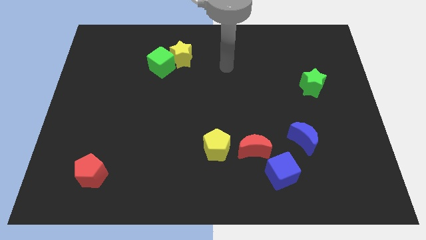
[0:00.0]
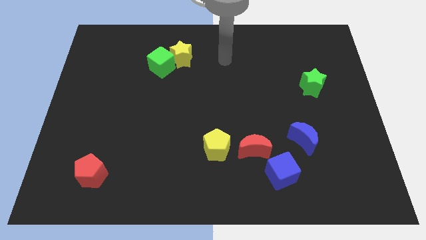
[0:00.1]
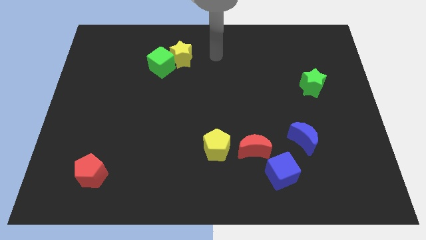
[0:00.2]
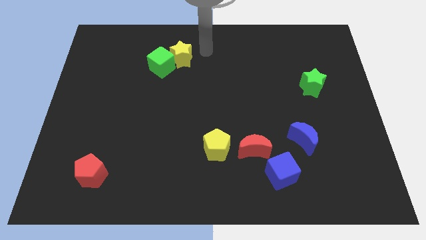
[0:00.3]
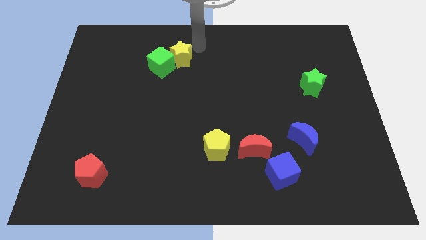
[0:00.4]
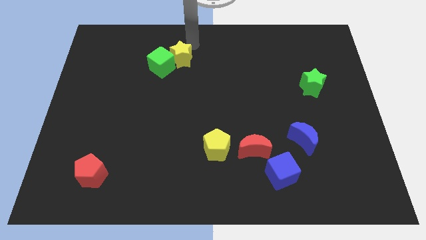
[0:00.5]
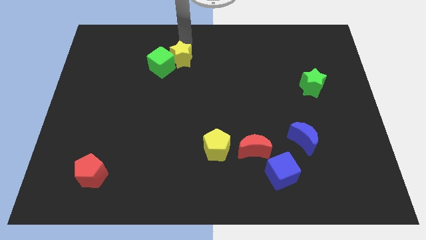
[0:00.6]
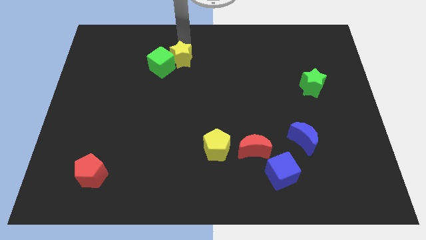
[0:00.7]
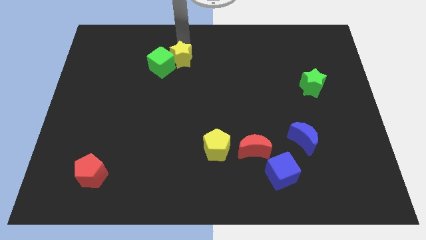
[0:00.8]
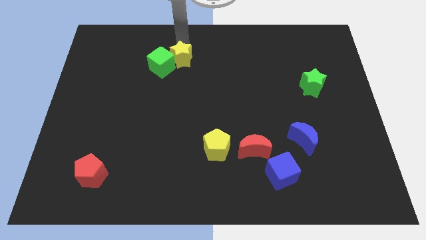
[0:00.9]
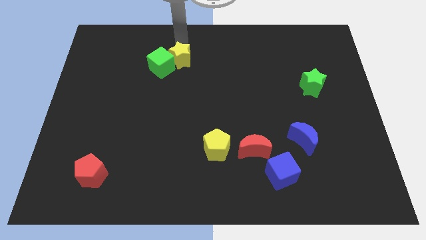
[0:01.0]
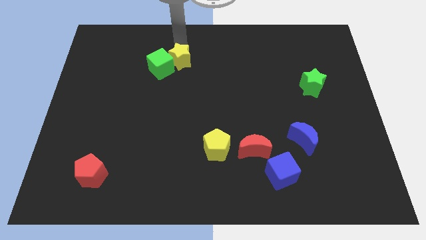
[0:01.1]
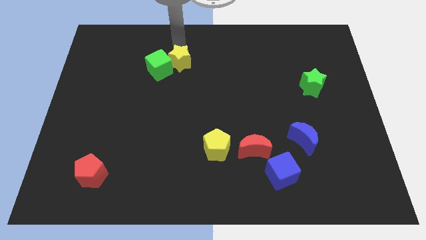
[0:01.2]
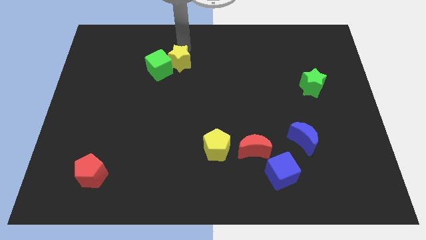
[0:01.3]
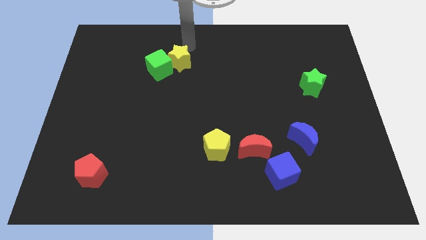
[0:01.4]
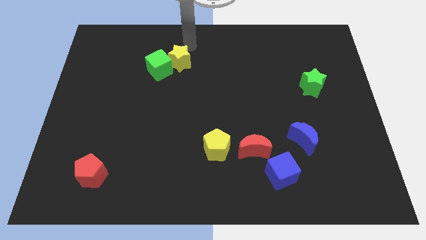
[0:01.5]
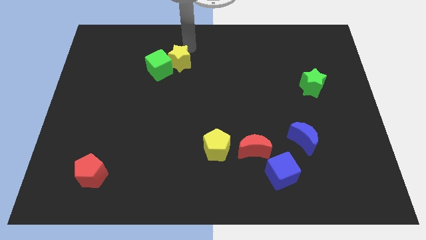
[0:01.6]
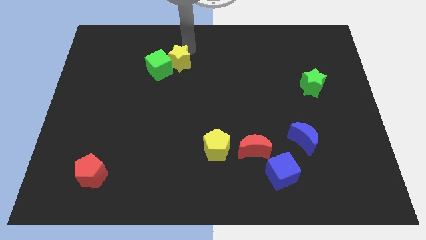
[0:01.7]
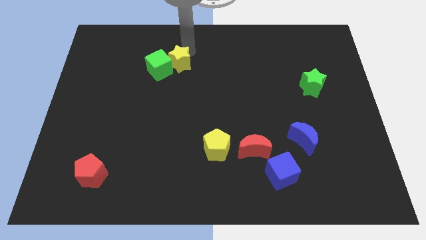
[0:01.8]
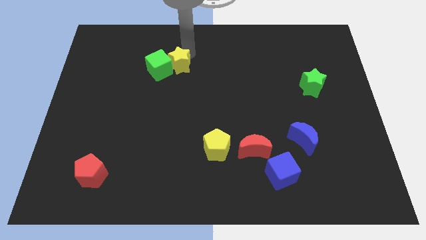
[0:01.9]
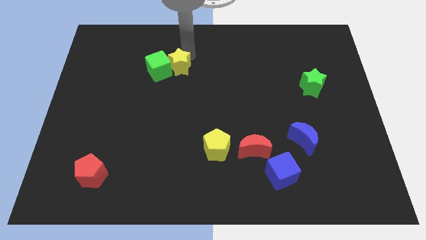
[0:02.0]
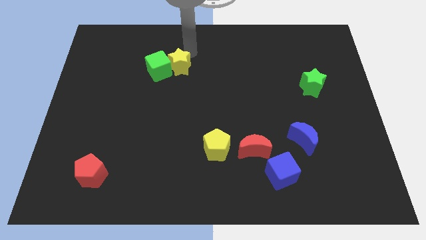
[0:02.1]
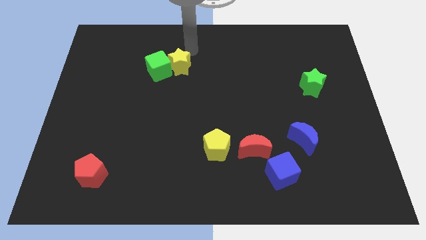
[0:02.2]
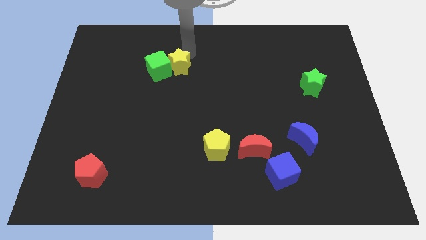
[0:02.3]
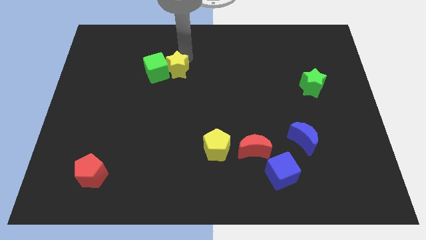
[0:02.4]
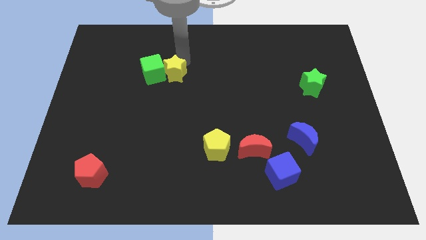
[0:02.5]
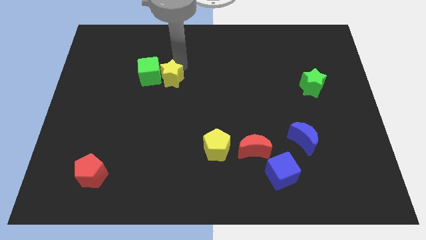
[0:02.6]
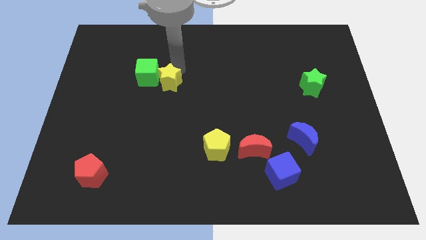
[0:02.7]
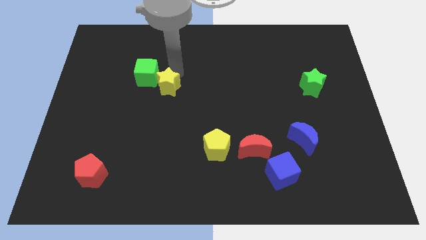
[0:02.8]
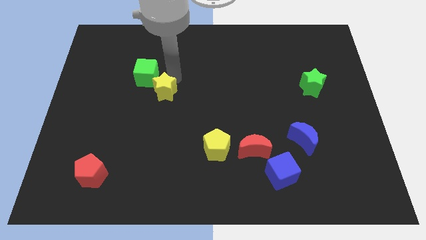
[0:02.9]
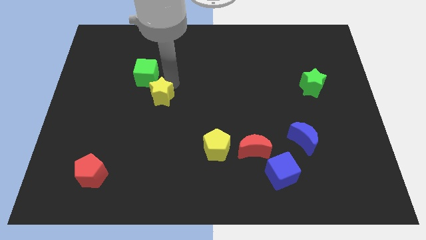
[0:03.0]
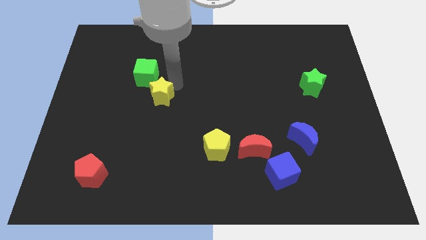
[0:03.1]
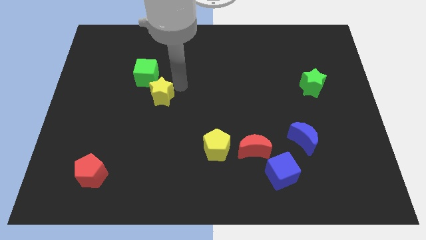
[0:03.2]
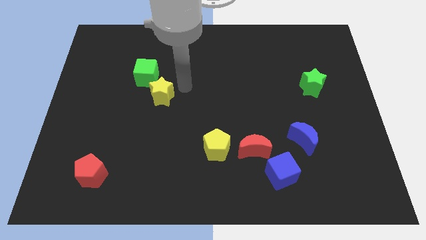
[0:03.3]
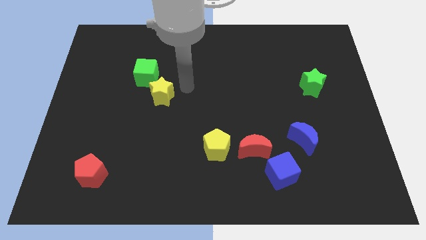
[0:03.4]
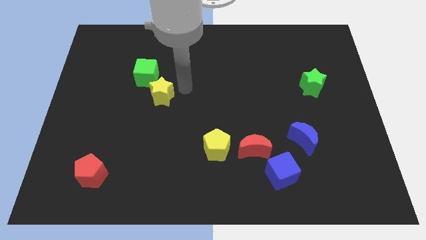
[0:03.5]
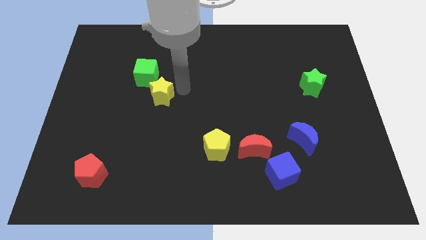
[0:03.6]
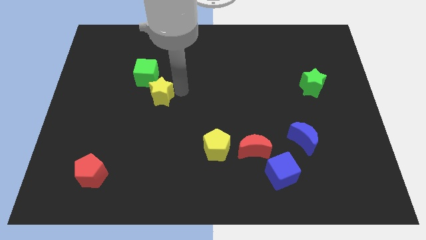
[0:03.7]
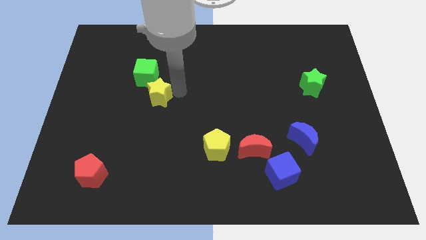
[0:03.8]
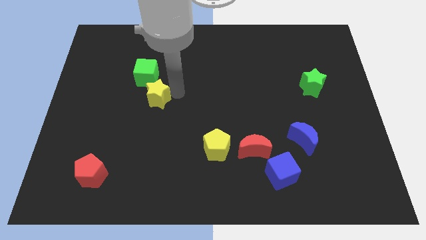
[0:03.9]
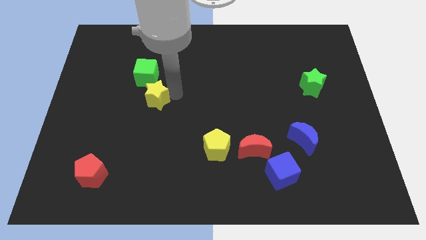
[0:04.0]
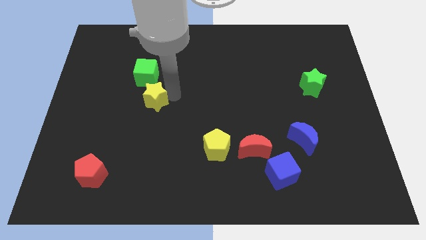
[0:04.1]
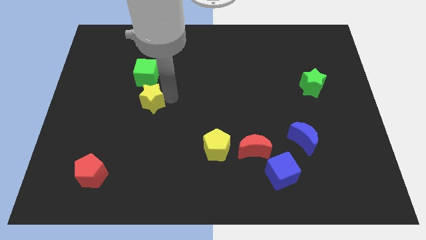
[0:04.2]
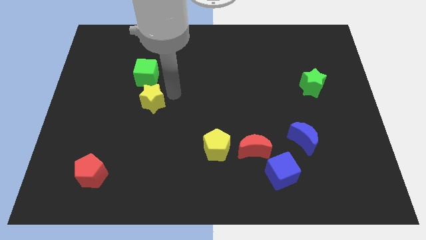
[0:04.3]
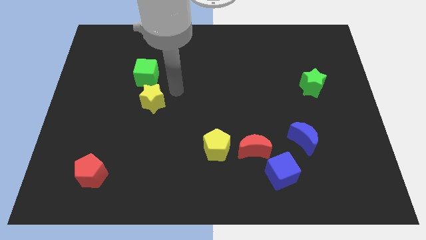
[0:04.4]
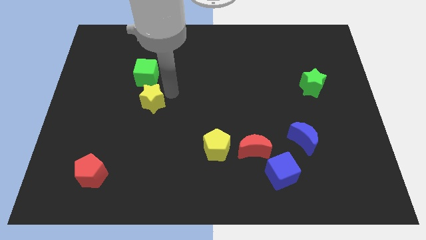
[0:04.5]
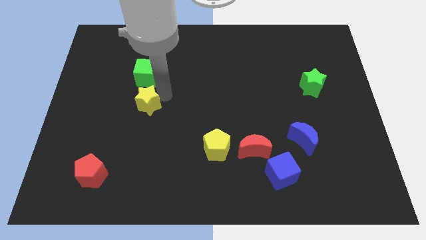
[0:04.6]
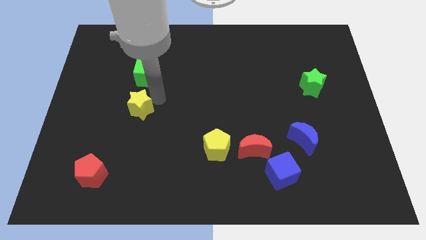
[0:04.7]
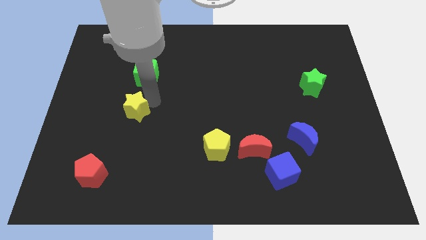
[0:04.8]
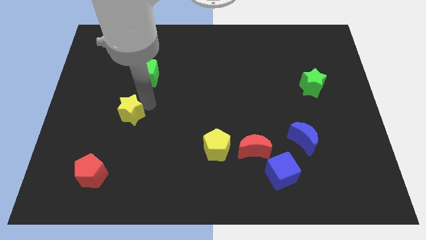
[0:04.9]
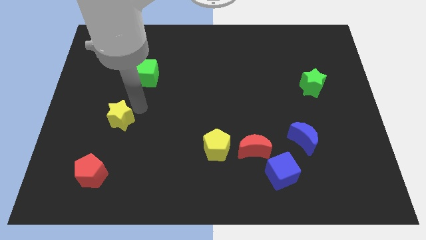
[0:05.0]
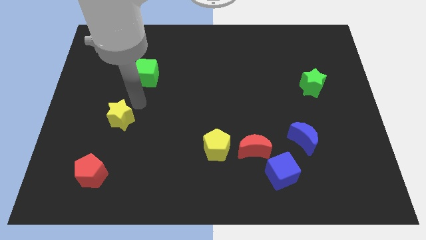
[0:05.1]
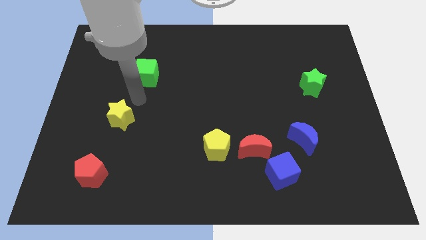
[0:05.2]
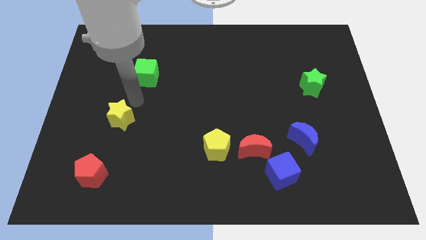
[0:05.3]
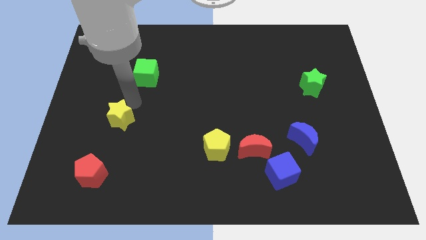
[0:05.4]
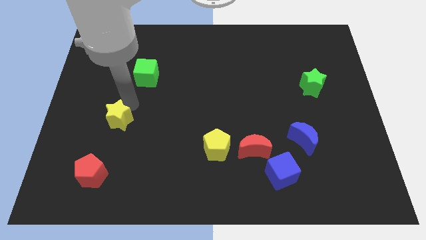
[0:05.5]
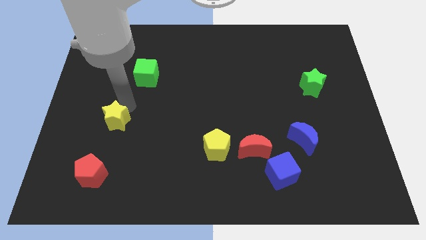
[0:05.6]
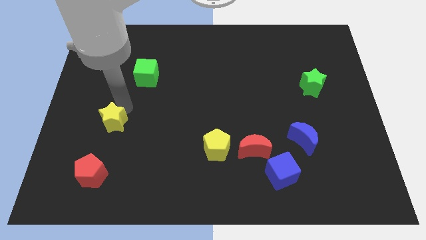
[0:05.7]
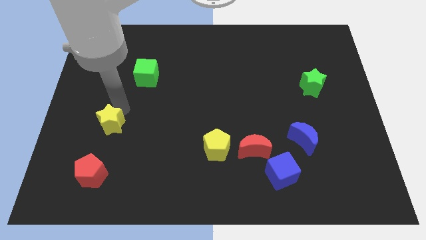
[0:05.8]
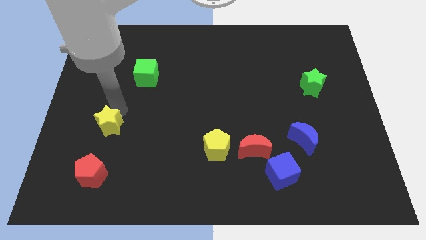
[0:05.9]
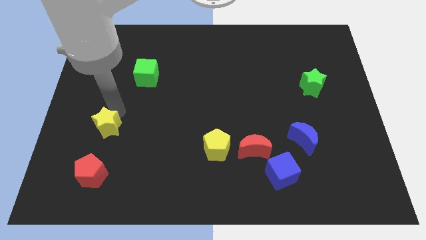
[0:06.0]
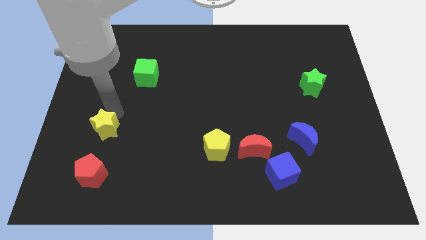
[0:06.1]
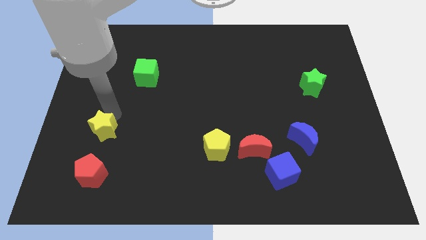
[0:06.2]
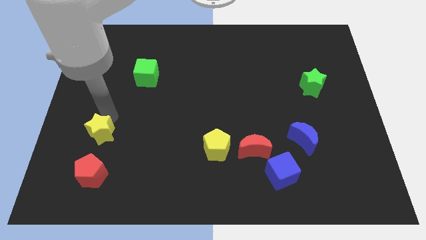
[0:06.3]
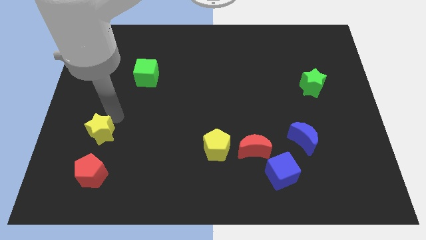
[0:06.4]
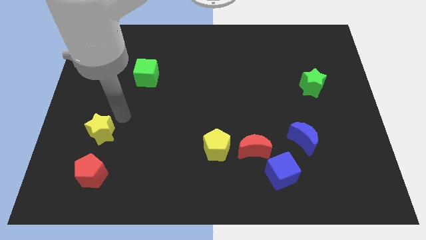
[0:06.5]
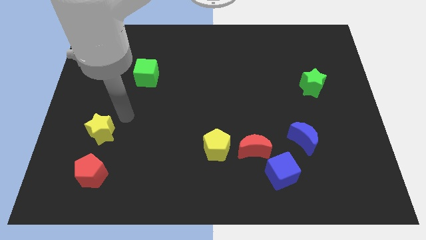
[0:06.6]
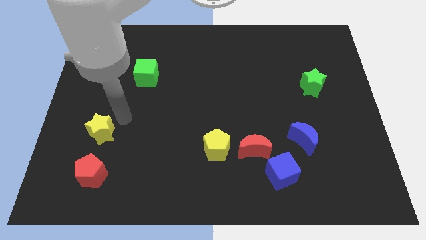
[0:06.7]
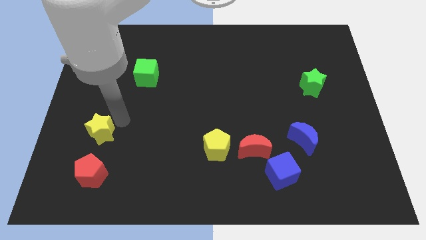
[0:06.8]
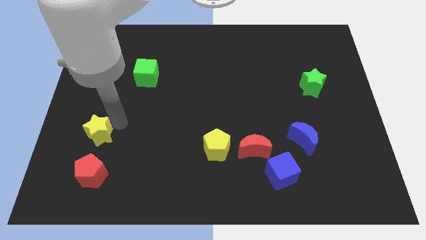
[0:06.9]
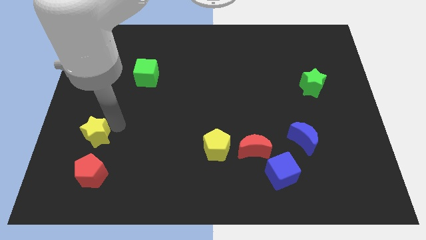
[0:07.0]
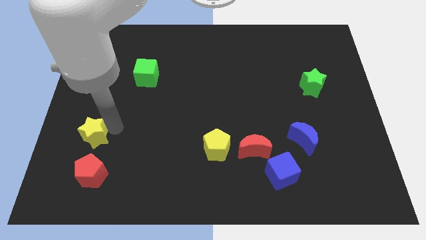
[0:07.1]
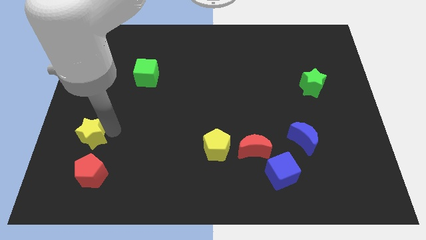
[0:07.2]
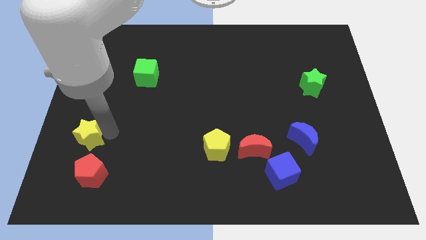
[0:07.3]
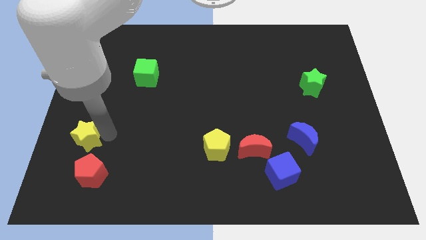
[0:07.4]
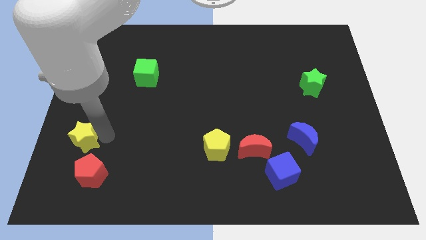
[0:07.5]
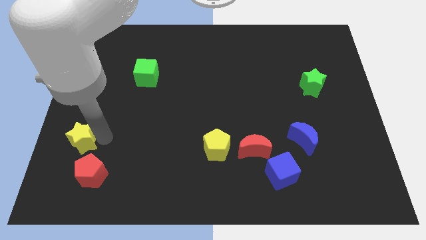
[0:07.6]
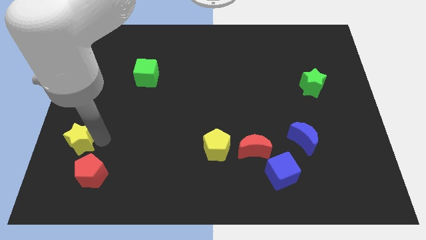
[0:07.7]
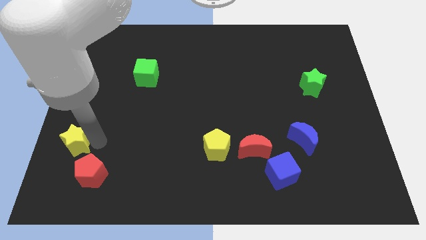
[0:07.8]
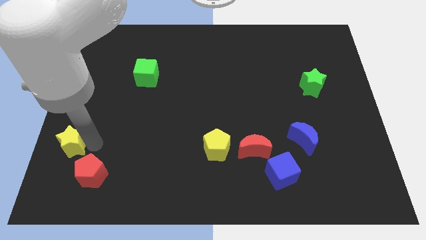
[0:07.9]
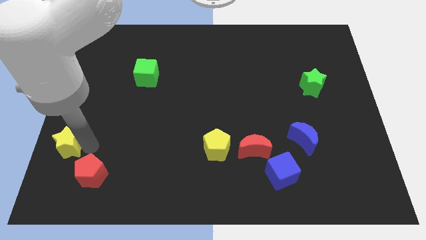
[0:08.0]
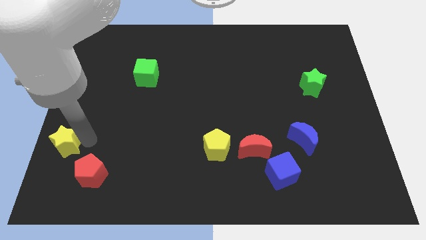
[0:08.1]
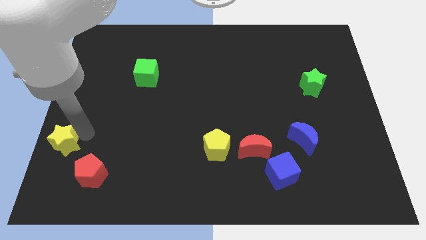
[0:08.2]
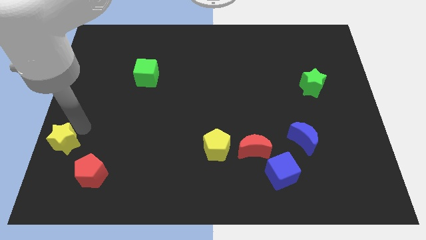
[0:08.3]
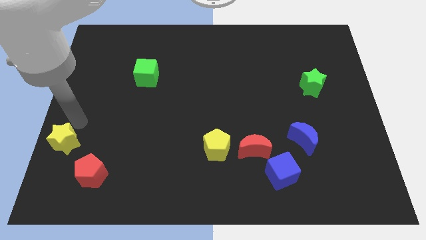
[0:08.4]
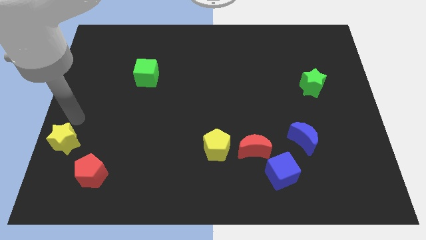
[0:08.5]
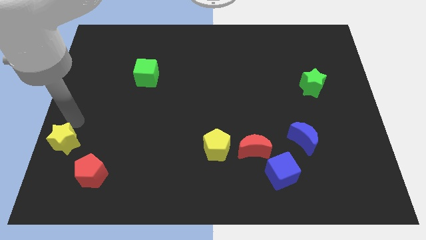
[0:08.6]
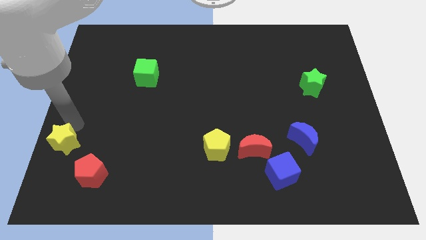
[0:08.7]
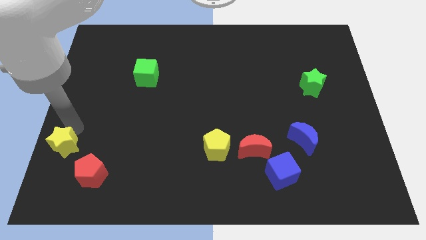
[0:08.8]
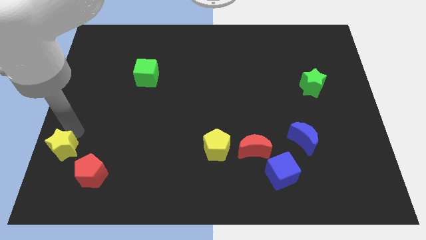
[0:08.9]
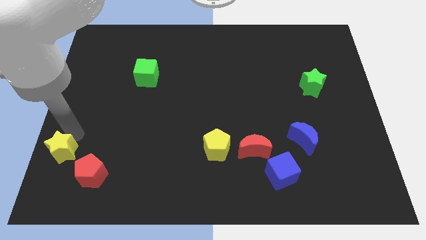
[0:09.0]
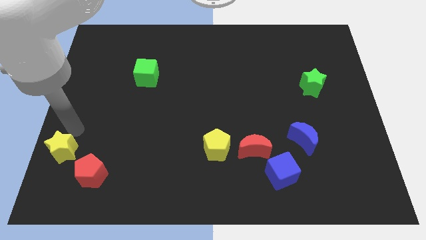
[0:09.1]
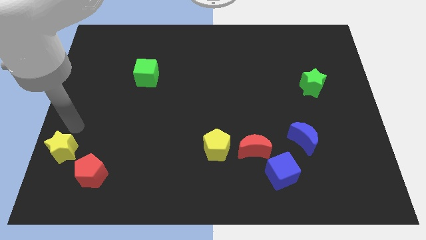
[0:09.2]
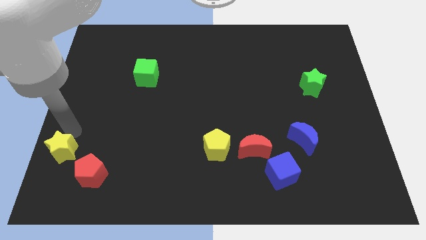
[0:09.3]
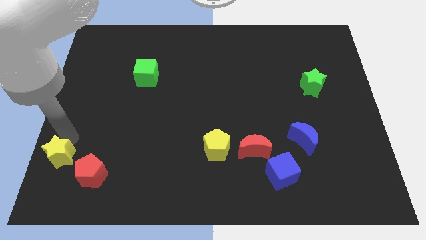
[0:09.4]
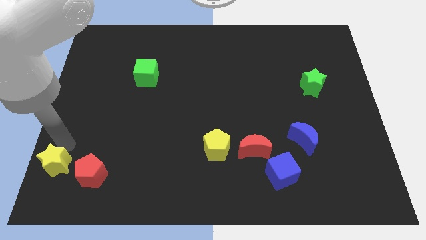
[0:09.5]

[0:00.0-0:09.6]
slide the yellow star to the bottom left corner
